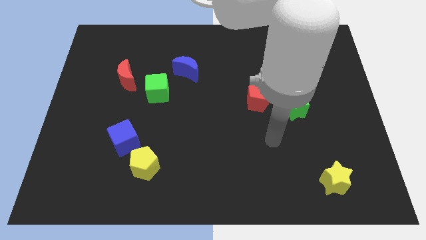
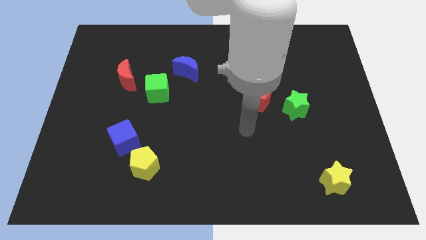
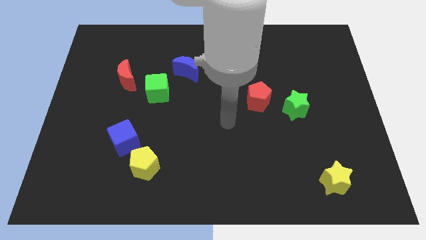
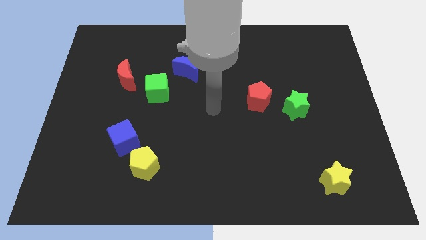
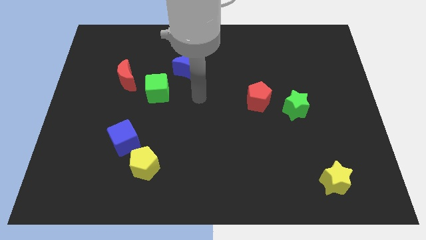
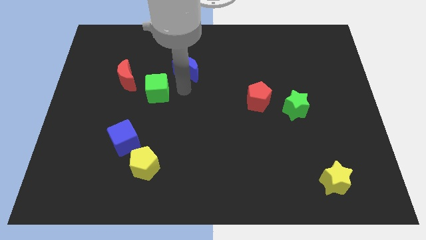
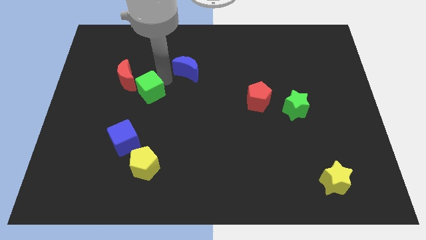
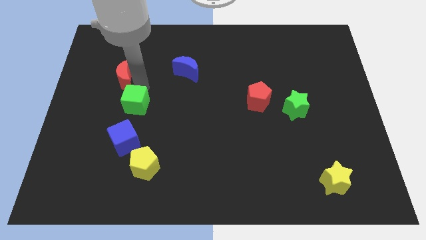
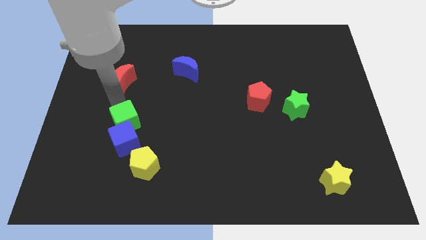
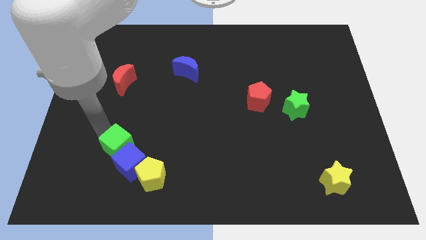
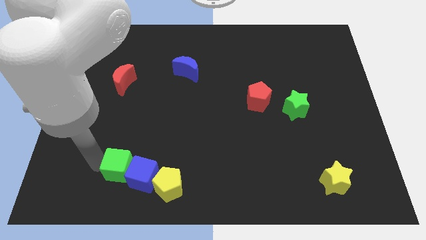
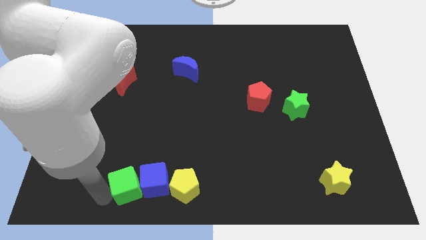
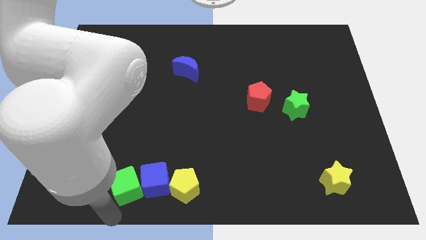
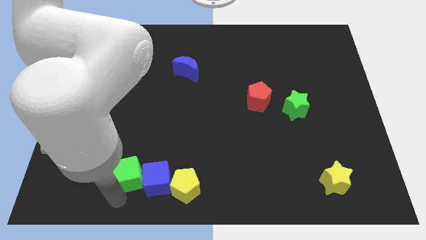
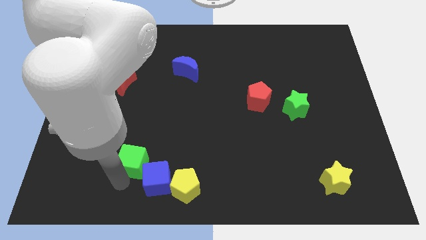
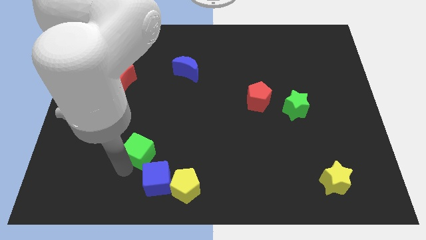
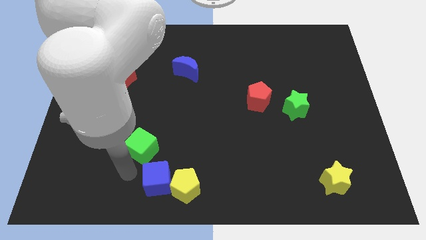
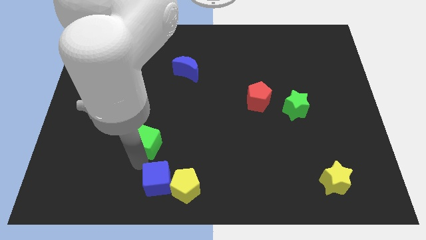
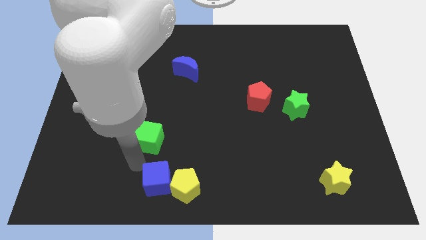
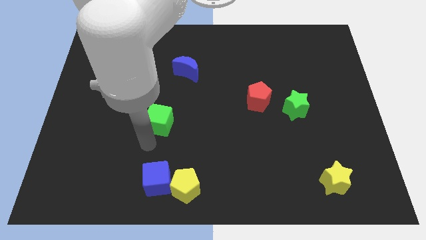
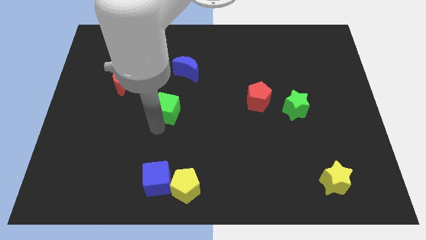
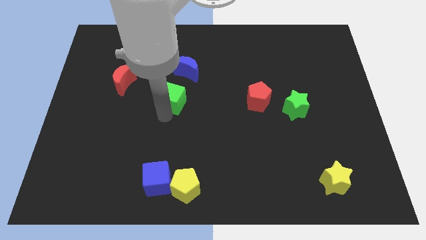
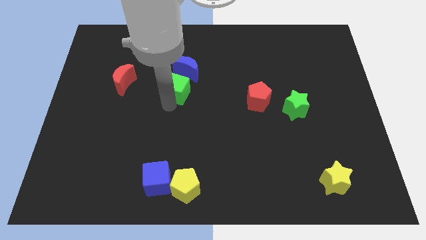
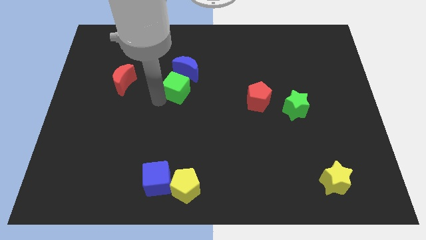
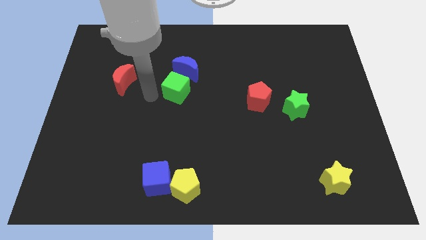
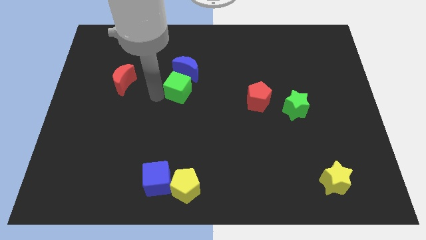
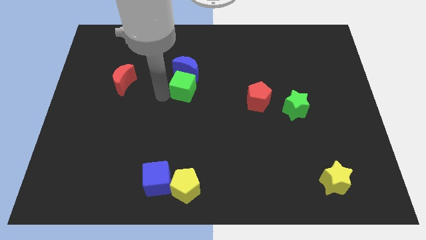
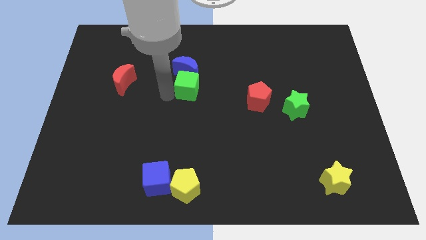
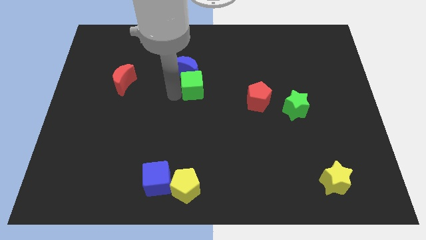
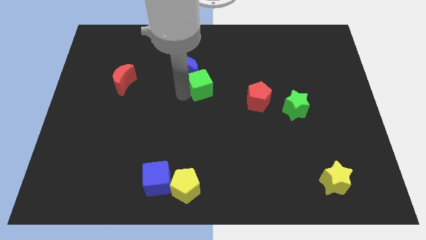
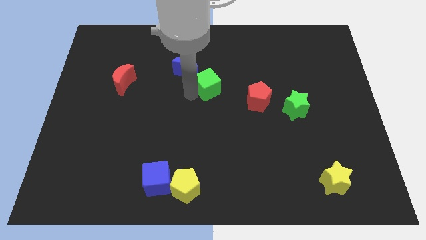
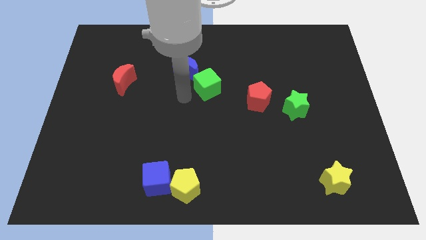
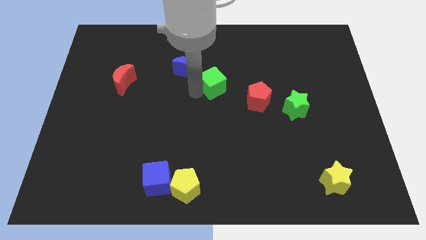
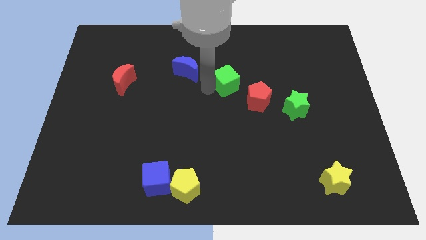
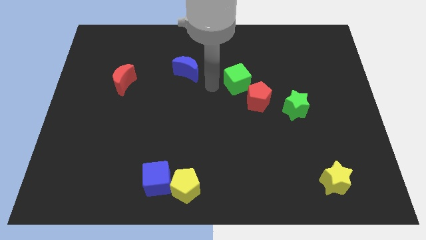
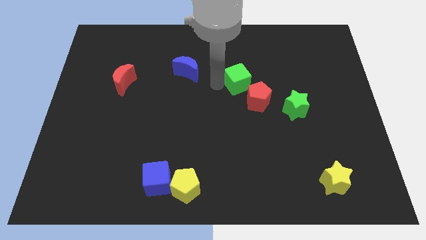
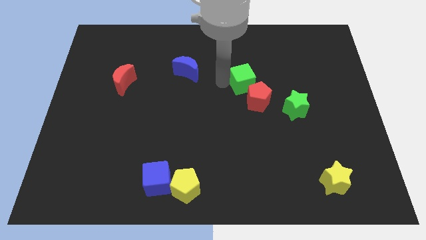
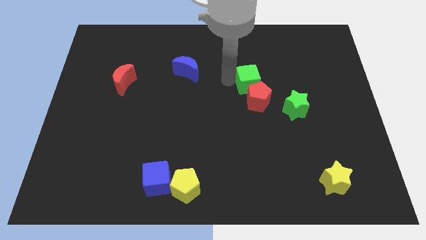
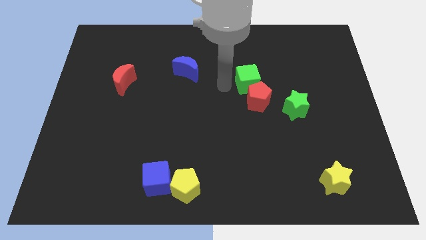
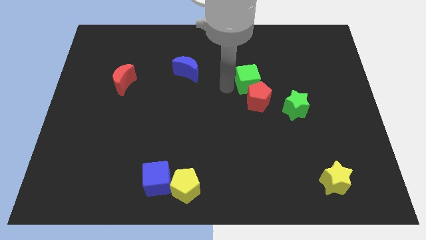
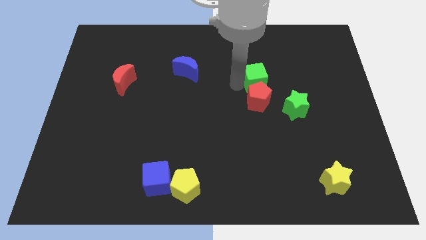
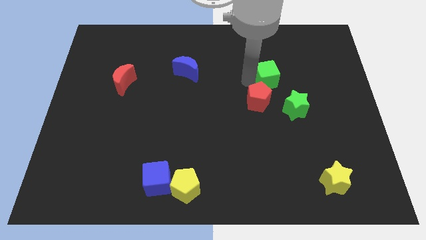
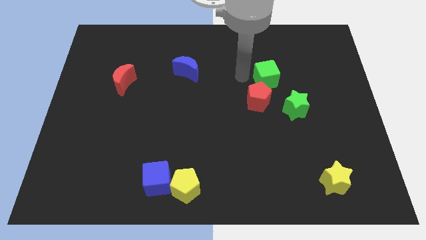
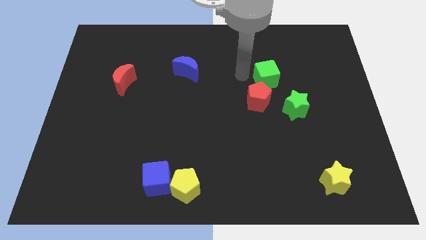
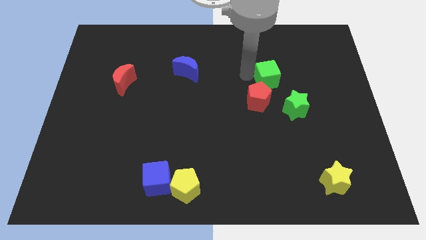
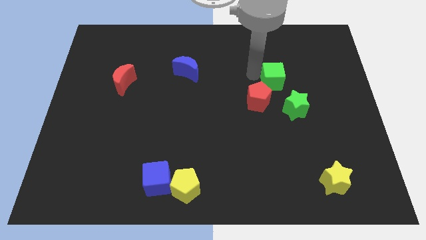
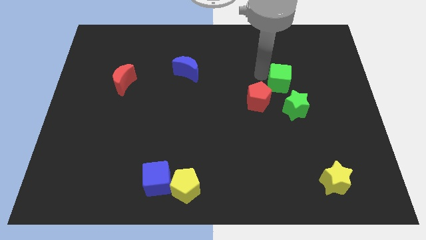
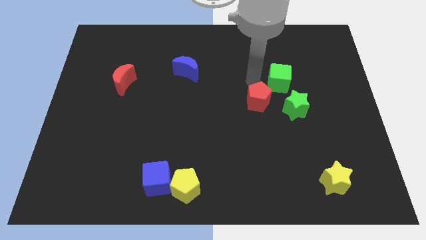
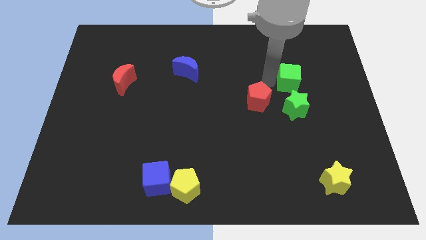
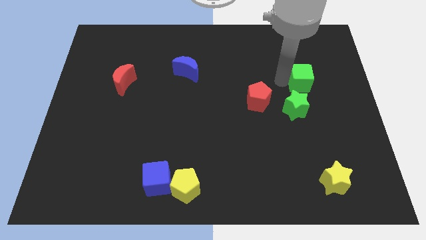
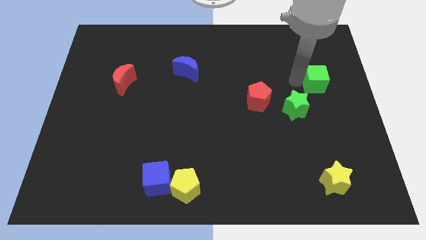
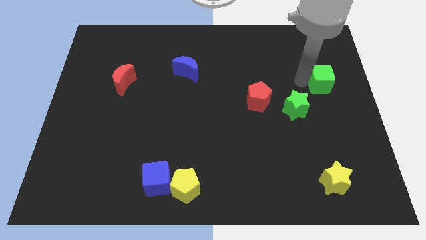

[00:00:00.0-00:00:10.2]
push the green cube to the center right

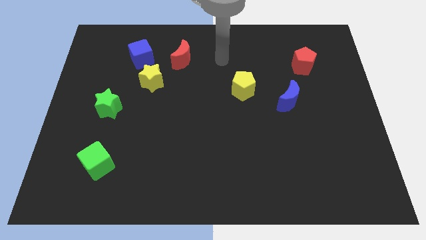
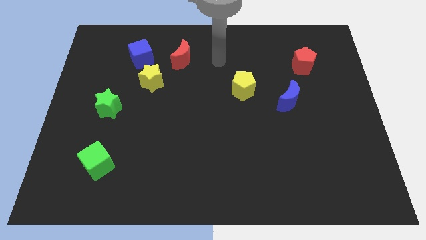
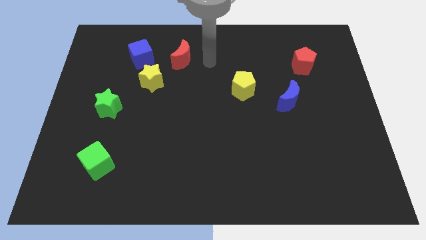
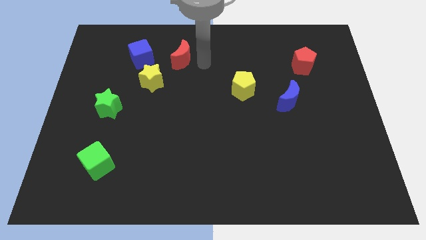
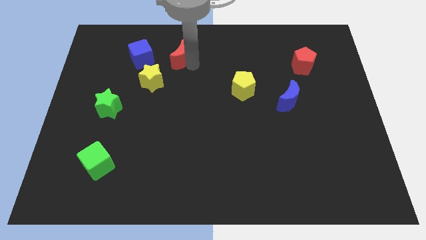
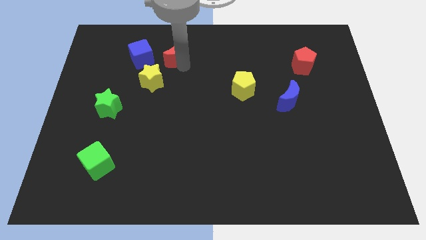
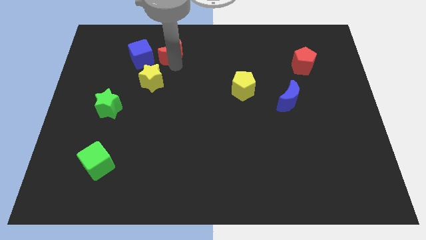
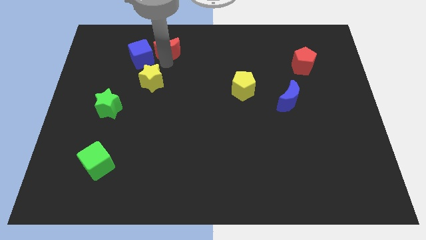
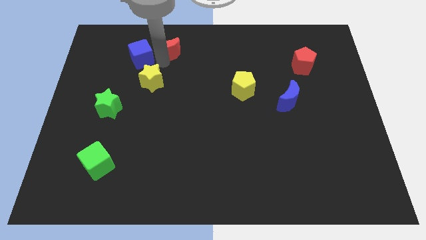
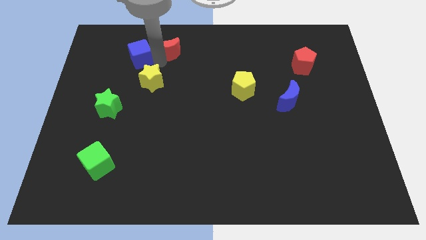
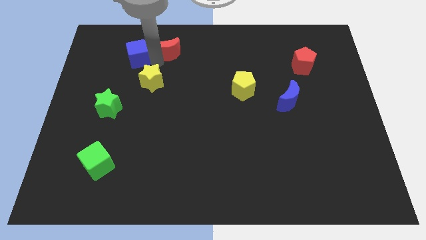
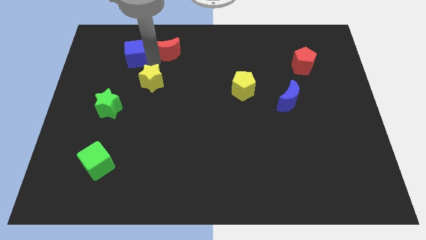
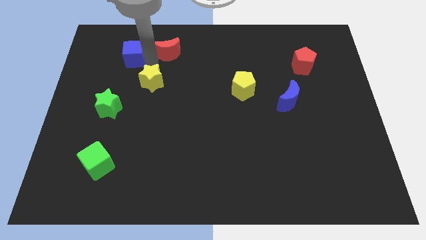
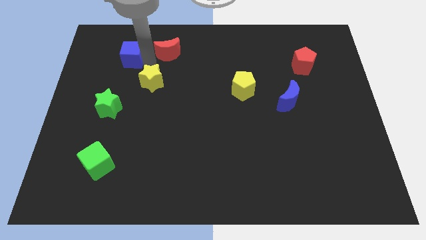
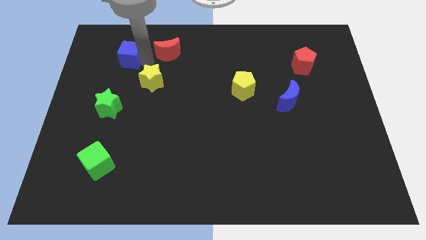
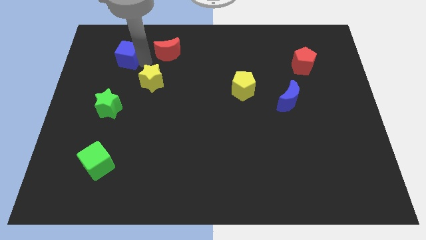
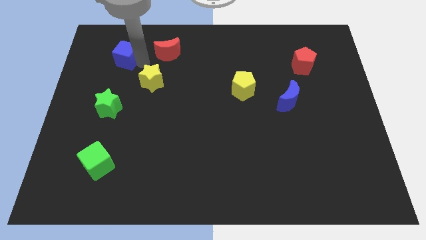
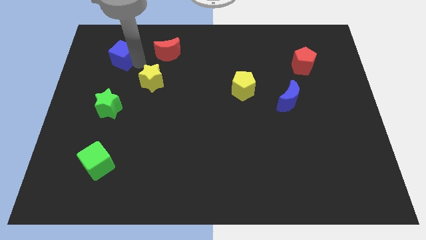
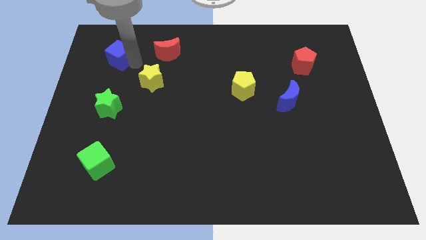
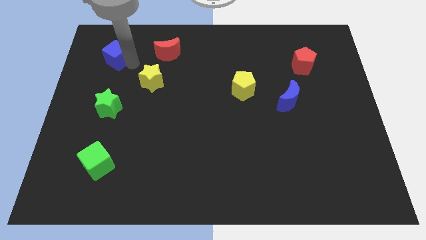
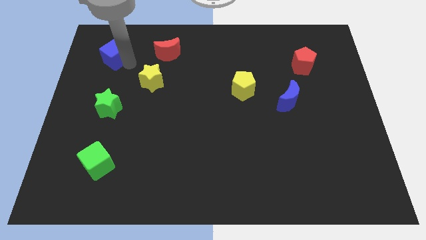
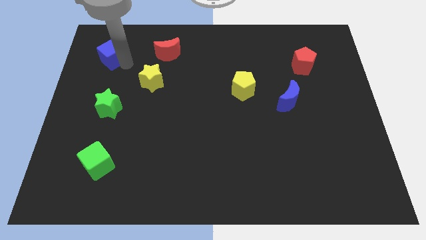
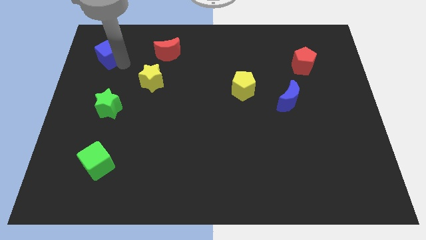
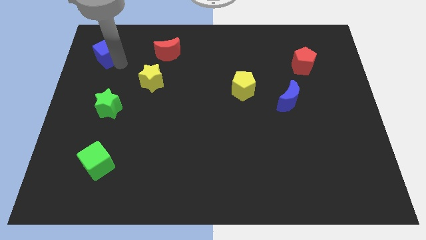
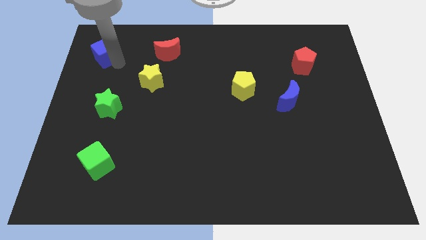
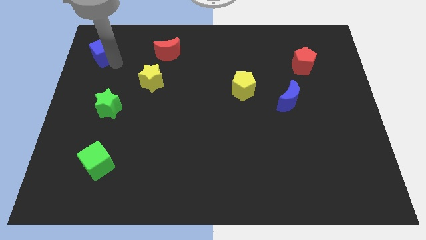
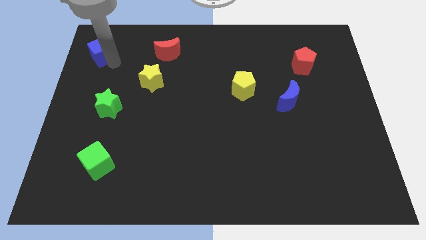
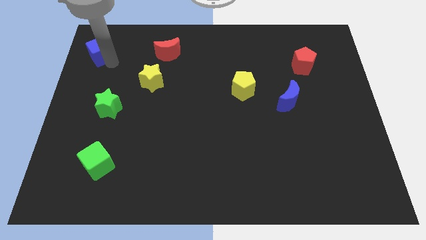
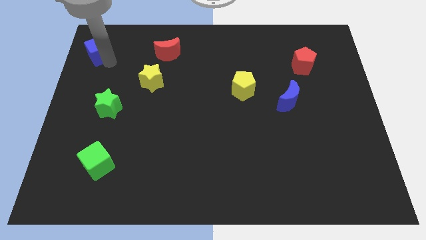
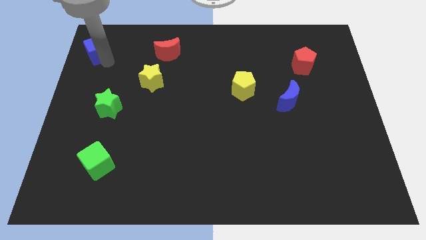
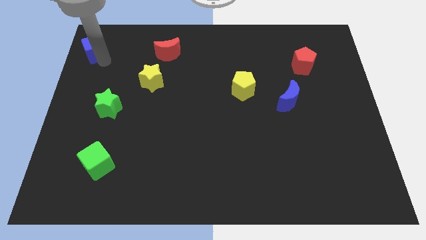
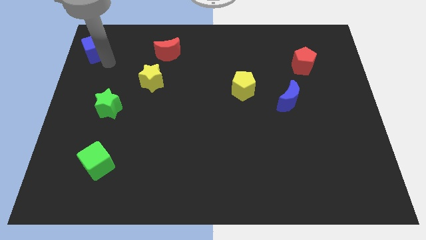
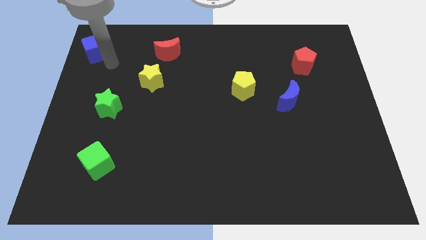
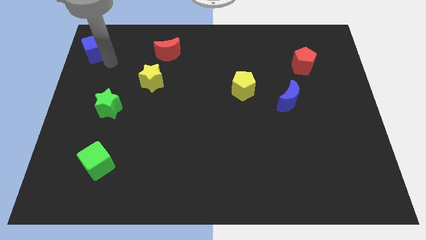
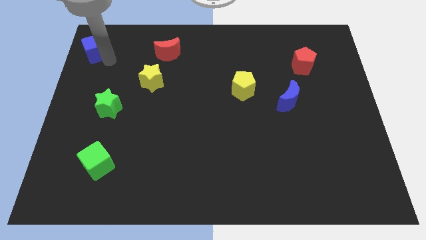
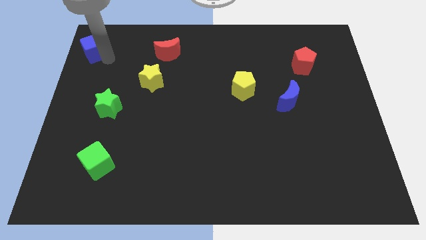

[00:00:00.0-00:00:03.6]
push the blue cube to the upper left corner
